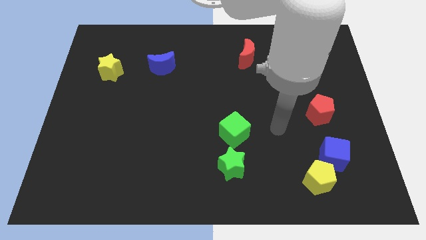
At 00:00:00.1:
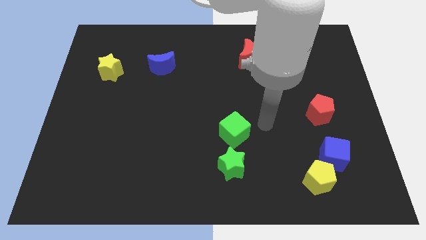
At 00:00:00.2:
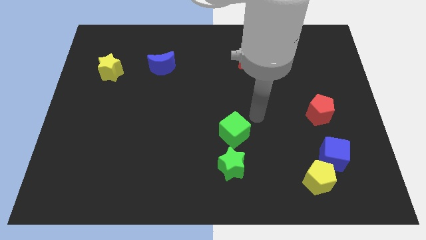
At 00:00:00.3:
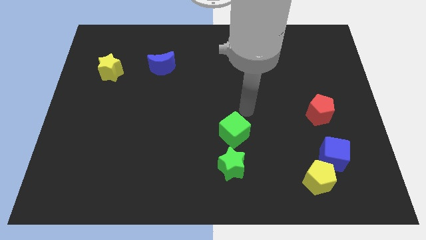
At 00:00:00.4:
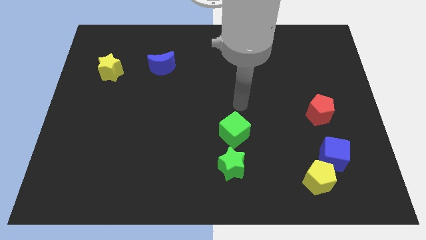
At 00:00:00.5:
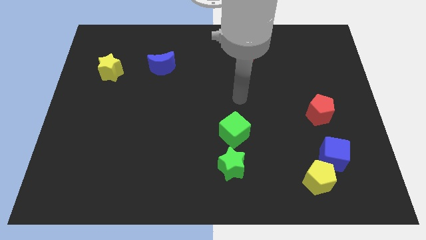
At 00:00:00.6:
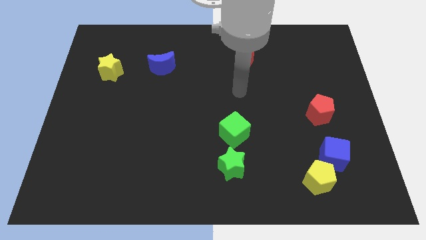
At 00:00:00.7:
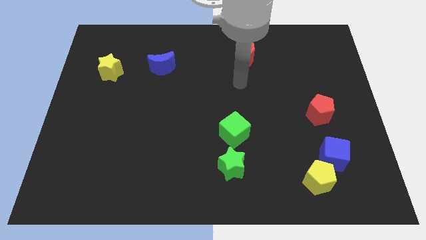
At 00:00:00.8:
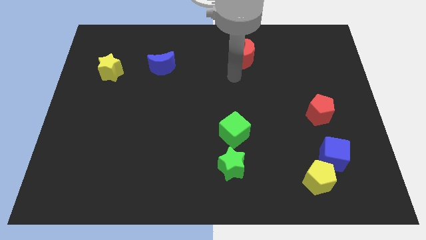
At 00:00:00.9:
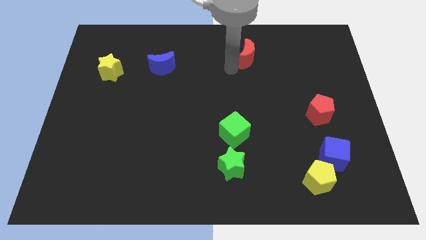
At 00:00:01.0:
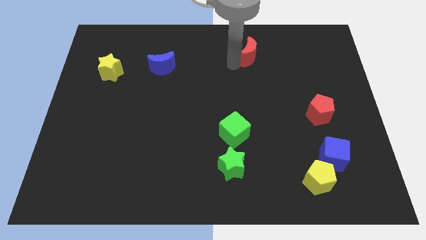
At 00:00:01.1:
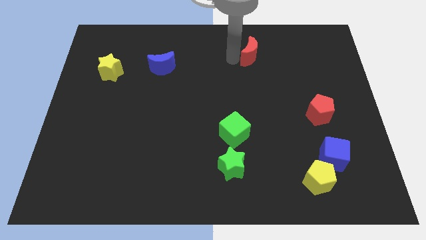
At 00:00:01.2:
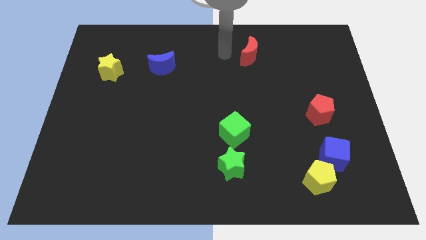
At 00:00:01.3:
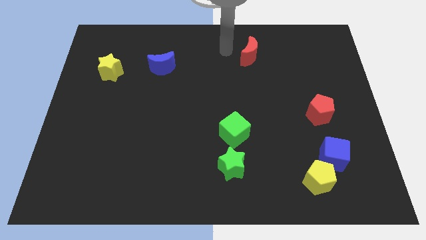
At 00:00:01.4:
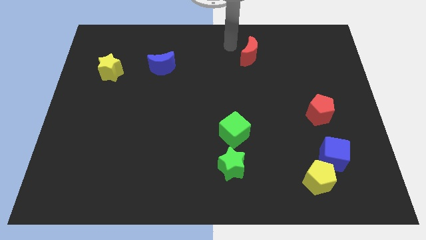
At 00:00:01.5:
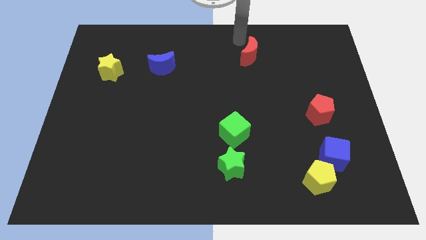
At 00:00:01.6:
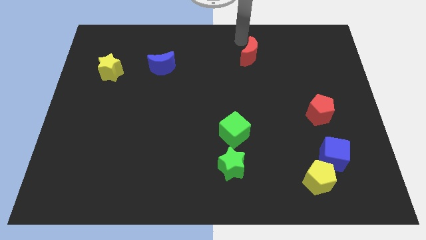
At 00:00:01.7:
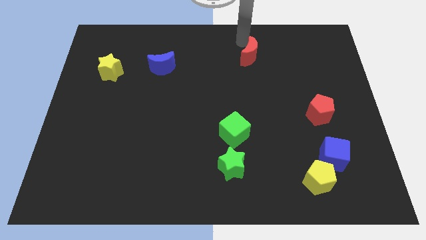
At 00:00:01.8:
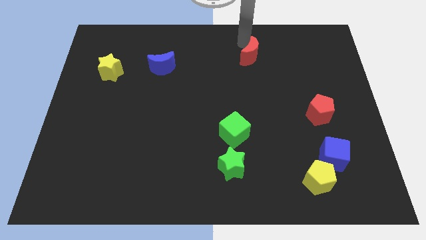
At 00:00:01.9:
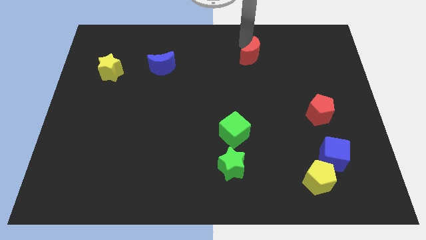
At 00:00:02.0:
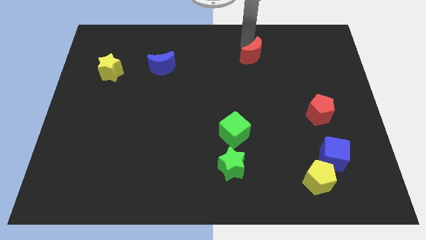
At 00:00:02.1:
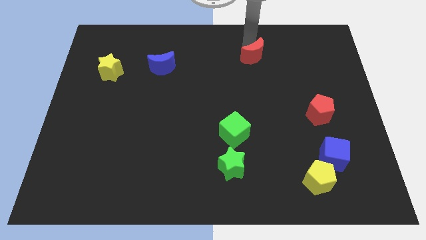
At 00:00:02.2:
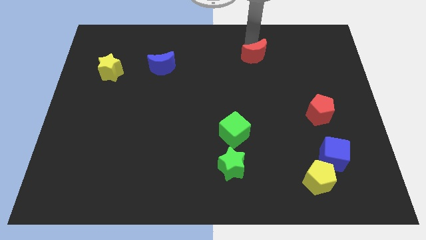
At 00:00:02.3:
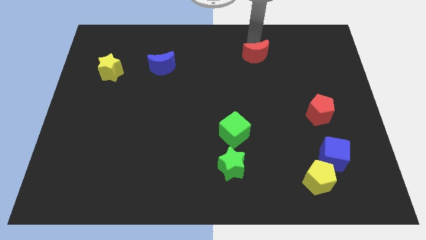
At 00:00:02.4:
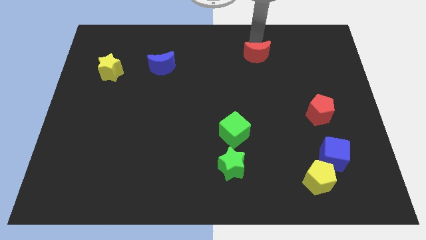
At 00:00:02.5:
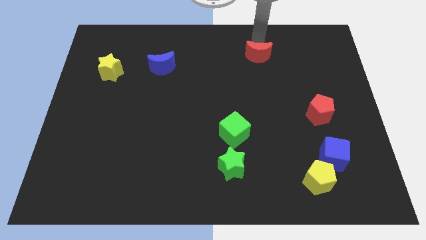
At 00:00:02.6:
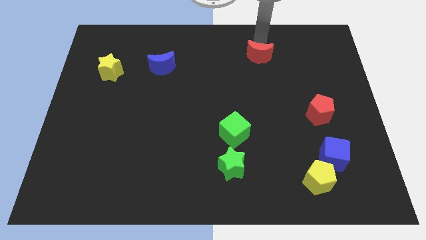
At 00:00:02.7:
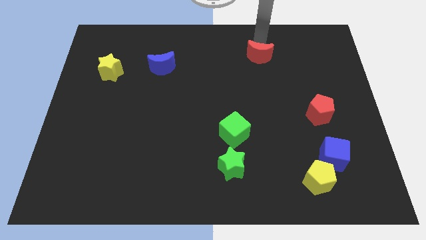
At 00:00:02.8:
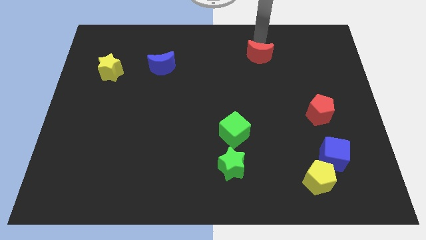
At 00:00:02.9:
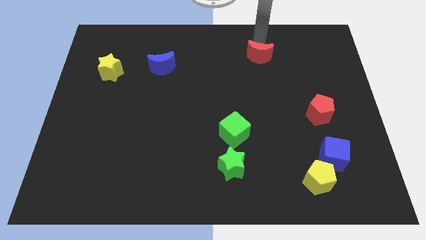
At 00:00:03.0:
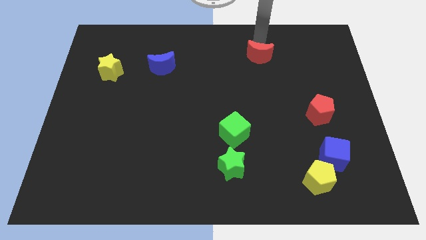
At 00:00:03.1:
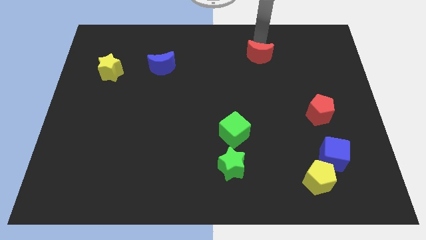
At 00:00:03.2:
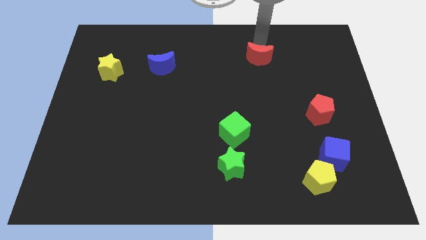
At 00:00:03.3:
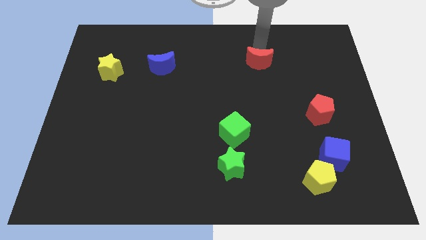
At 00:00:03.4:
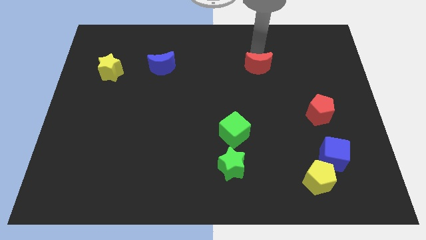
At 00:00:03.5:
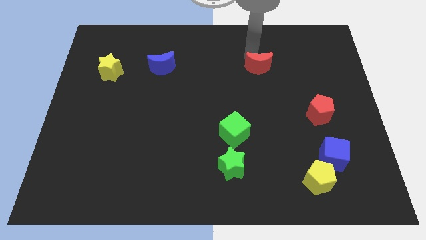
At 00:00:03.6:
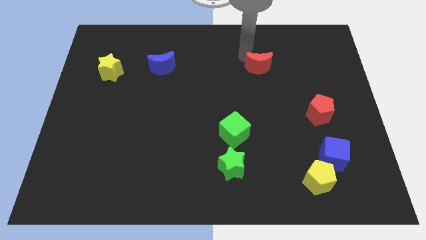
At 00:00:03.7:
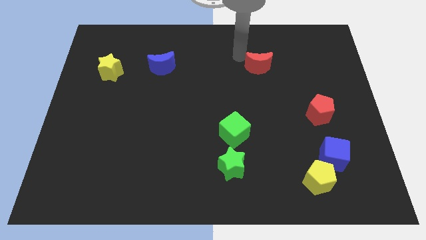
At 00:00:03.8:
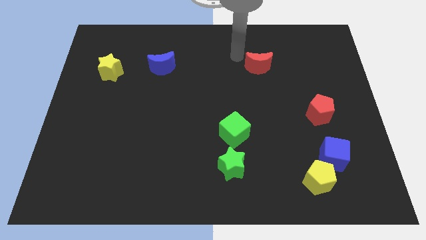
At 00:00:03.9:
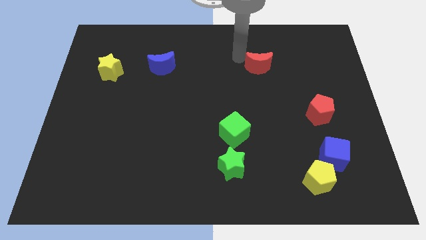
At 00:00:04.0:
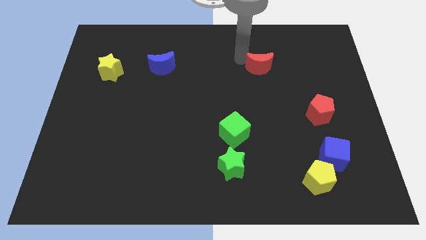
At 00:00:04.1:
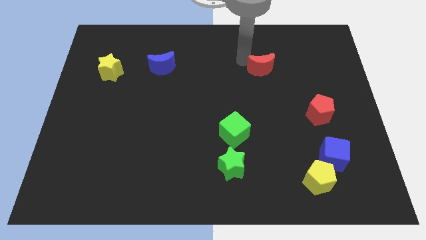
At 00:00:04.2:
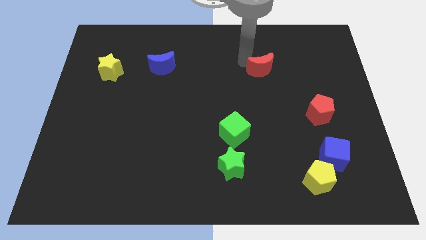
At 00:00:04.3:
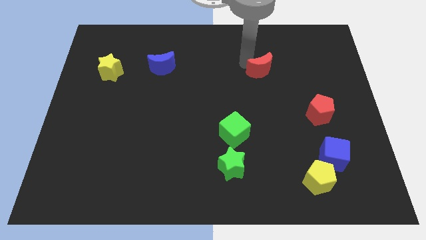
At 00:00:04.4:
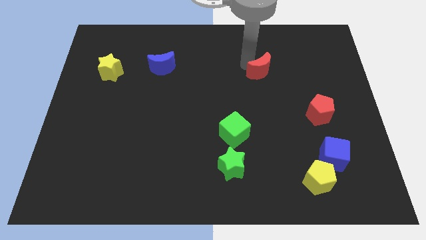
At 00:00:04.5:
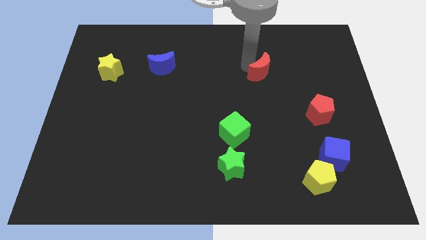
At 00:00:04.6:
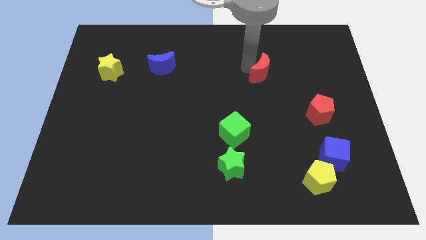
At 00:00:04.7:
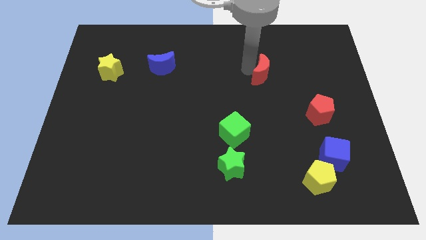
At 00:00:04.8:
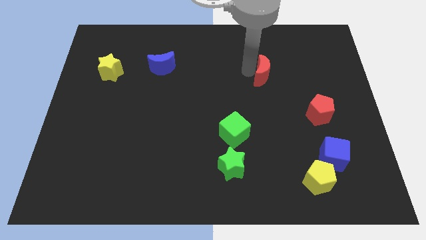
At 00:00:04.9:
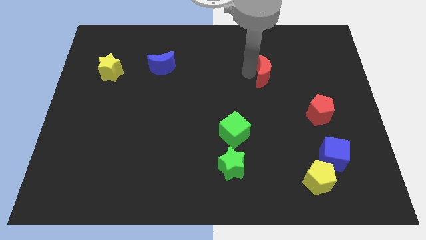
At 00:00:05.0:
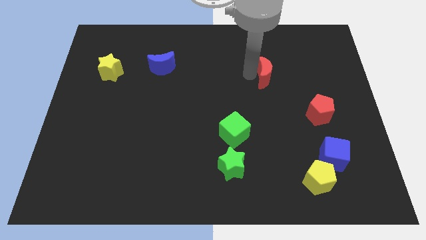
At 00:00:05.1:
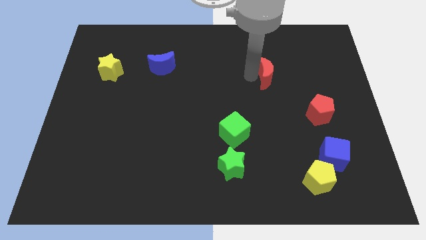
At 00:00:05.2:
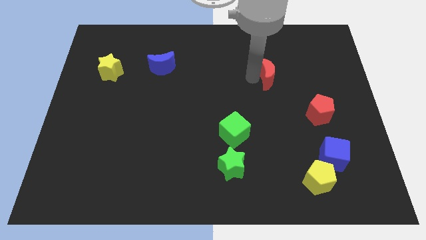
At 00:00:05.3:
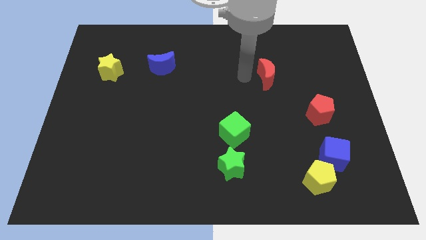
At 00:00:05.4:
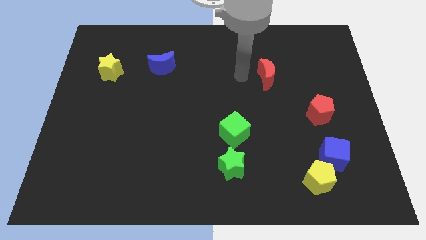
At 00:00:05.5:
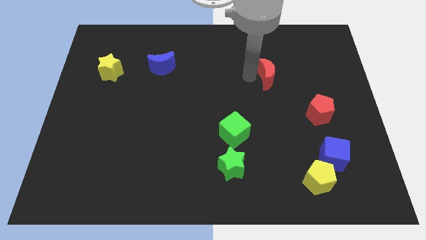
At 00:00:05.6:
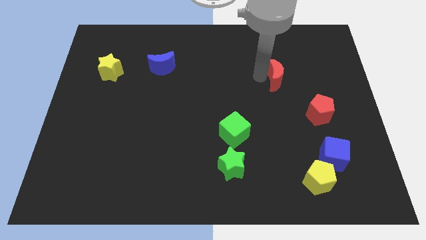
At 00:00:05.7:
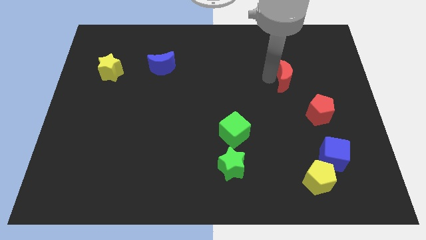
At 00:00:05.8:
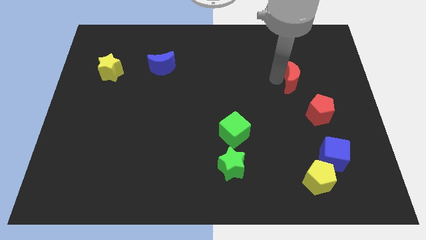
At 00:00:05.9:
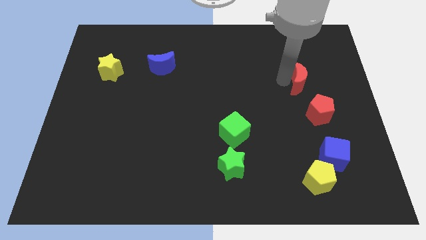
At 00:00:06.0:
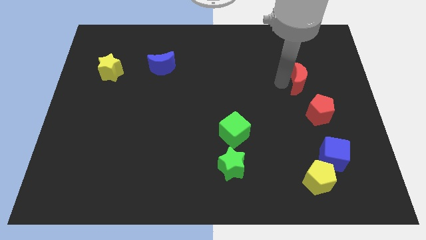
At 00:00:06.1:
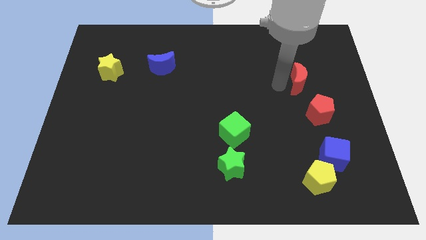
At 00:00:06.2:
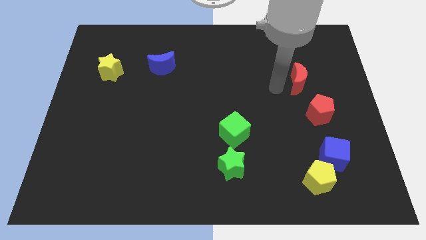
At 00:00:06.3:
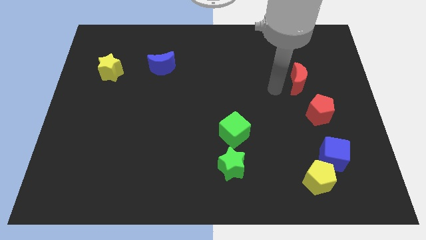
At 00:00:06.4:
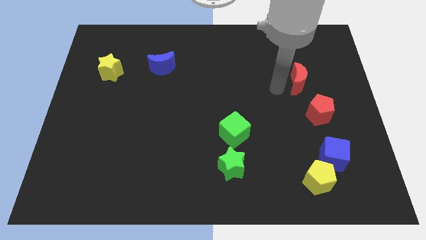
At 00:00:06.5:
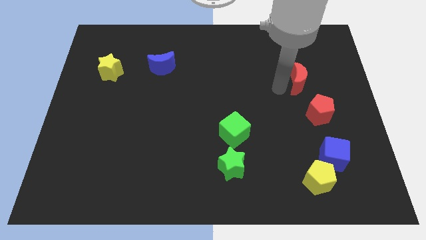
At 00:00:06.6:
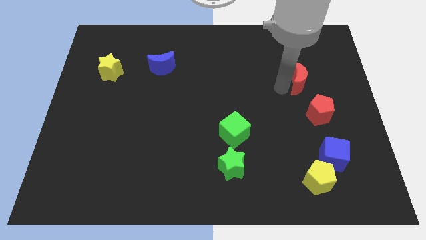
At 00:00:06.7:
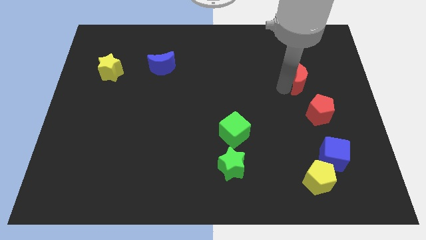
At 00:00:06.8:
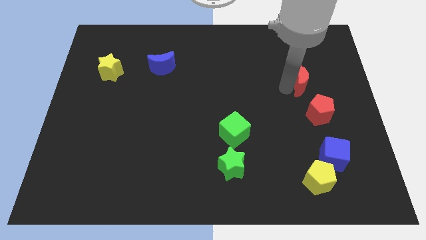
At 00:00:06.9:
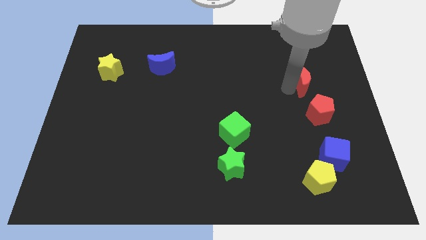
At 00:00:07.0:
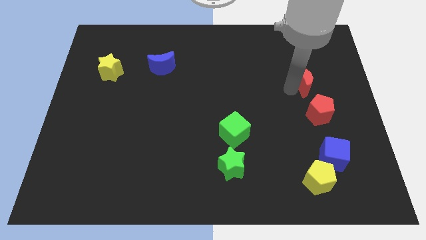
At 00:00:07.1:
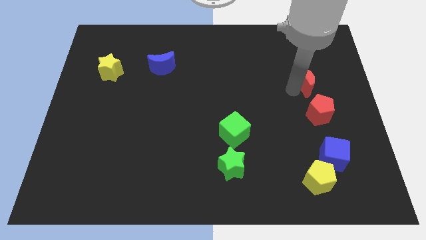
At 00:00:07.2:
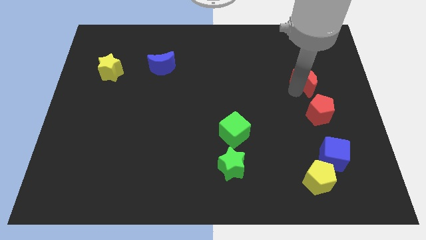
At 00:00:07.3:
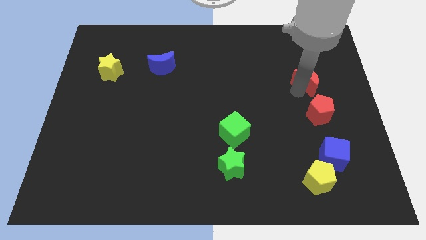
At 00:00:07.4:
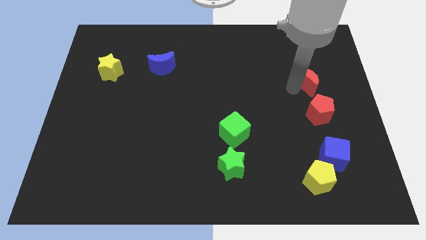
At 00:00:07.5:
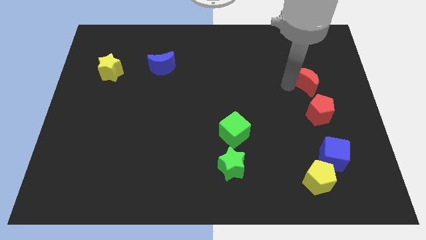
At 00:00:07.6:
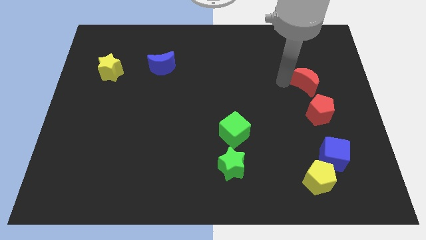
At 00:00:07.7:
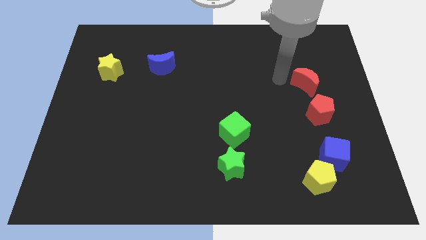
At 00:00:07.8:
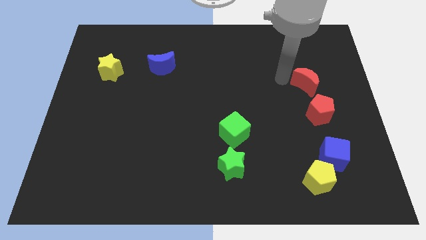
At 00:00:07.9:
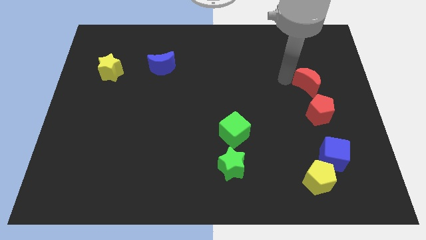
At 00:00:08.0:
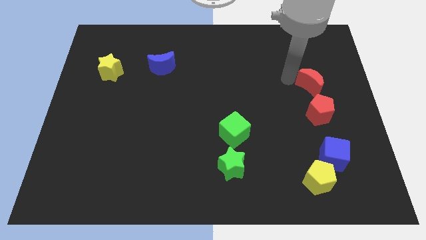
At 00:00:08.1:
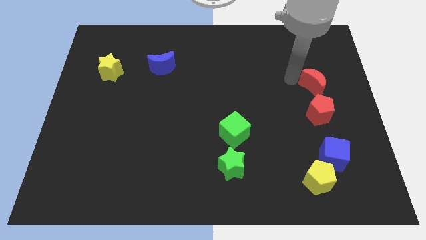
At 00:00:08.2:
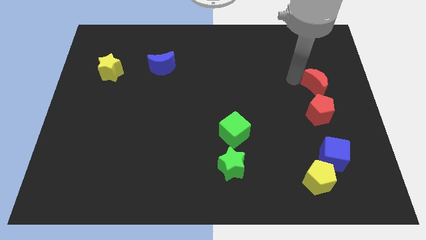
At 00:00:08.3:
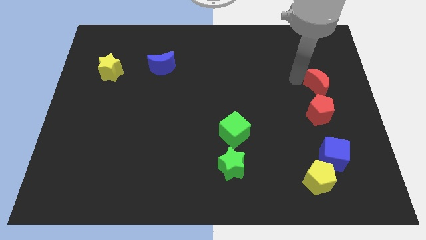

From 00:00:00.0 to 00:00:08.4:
slide the red moon to the right side
